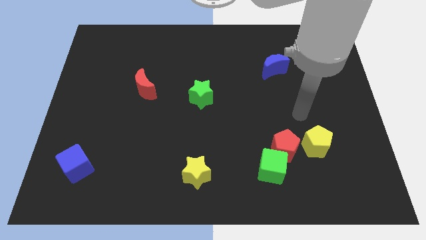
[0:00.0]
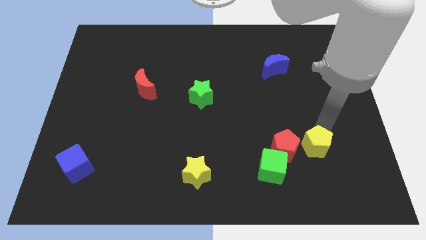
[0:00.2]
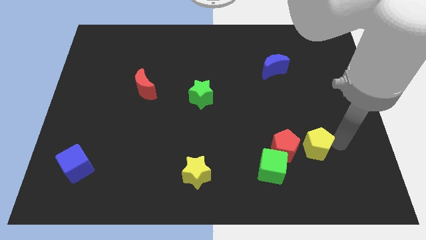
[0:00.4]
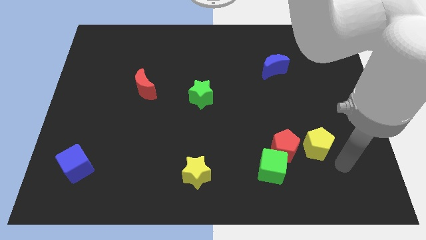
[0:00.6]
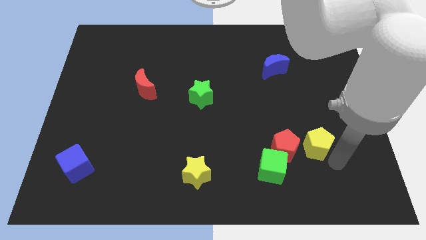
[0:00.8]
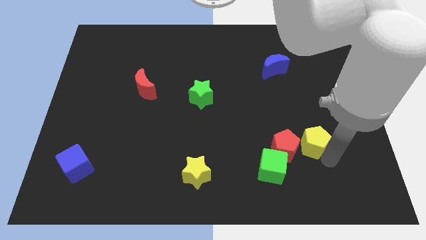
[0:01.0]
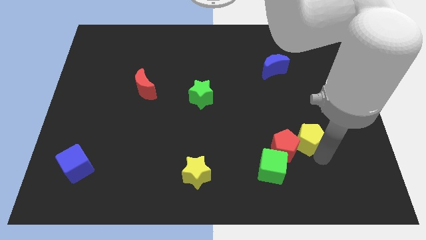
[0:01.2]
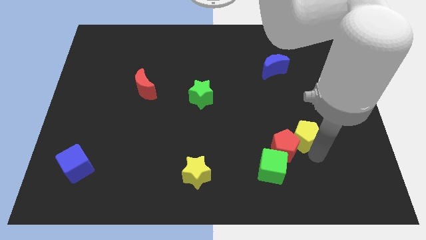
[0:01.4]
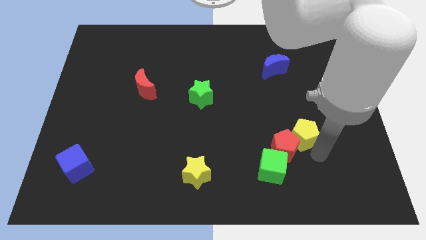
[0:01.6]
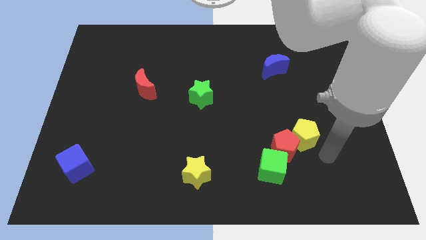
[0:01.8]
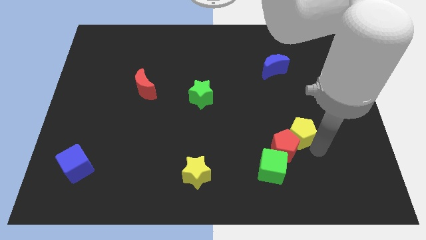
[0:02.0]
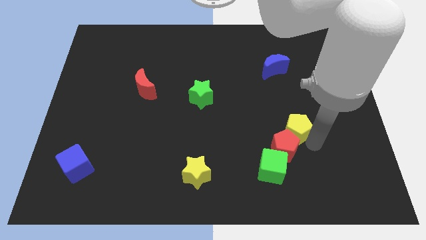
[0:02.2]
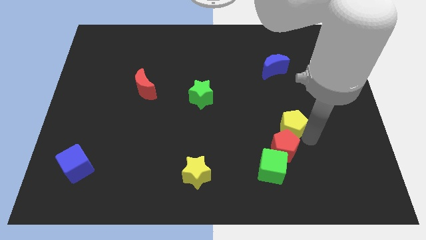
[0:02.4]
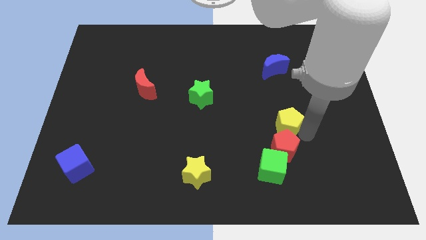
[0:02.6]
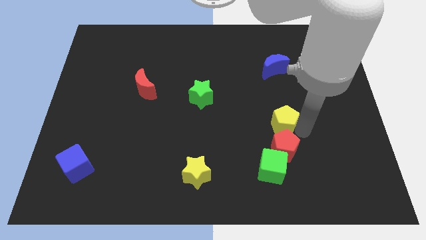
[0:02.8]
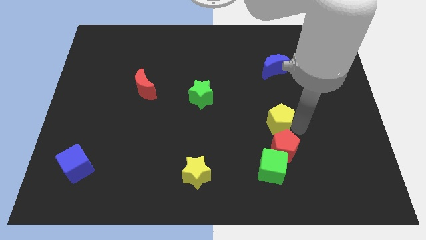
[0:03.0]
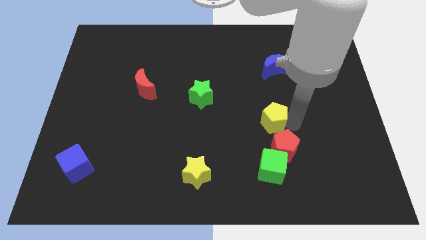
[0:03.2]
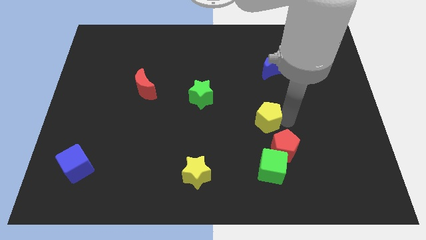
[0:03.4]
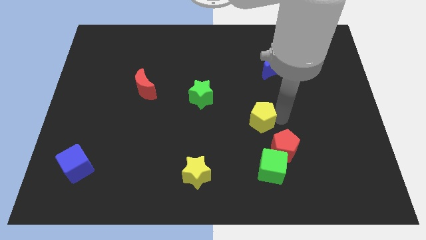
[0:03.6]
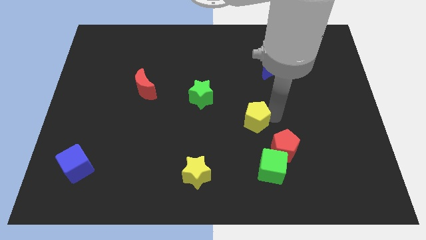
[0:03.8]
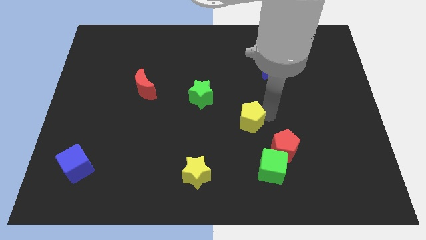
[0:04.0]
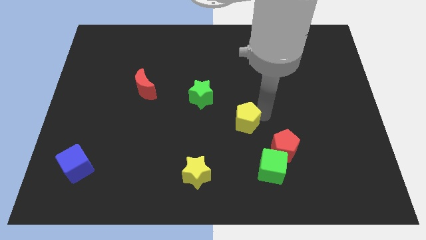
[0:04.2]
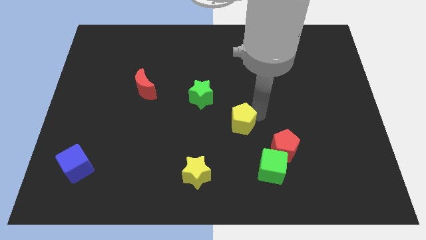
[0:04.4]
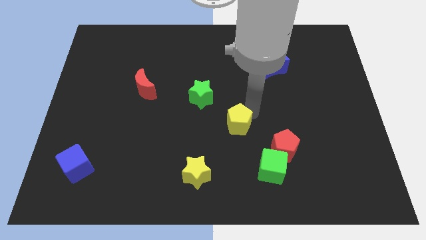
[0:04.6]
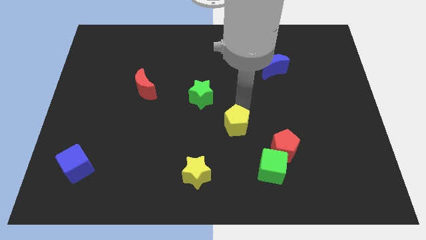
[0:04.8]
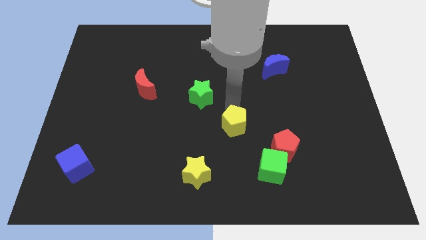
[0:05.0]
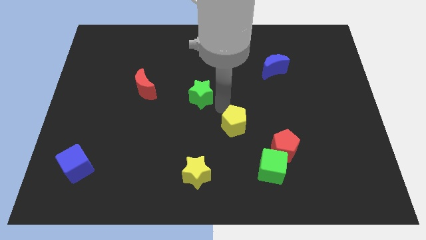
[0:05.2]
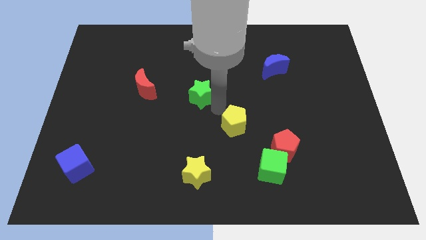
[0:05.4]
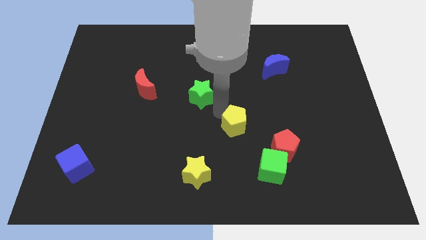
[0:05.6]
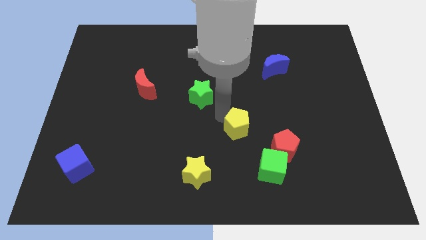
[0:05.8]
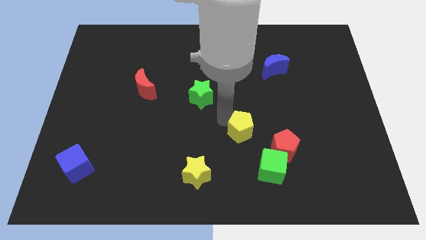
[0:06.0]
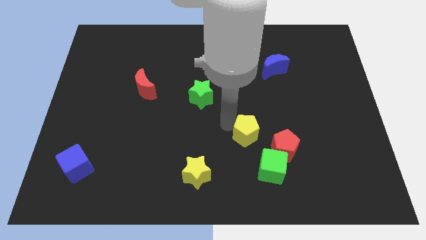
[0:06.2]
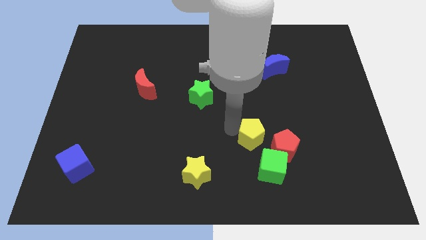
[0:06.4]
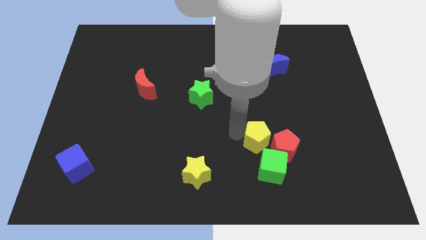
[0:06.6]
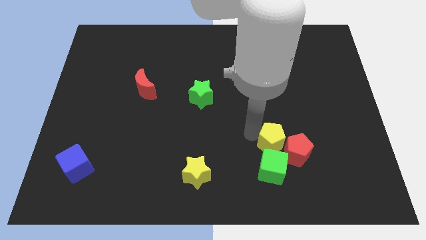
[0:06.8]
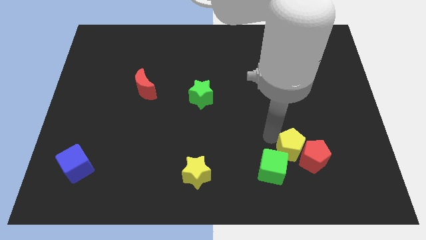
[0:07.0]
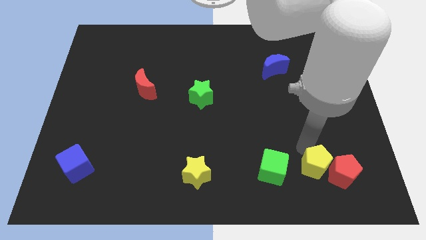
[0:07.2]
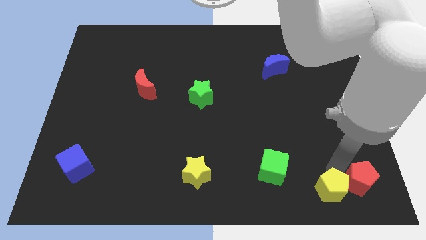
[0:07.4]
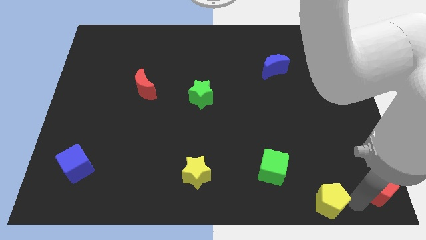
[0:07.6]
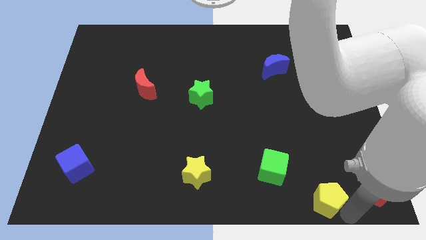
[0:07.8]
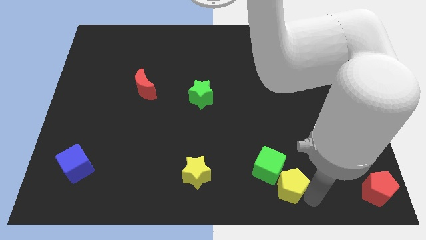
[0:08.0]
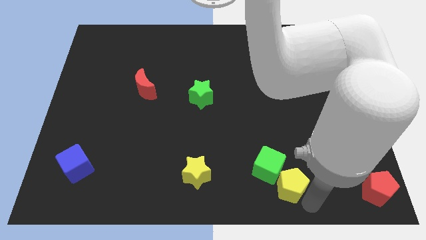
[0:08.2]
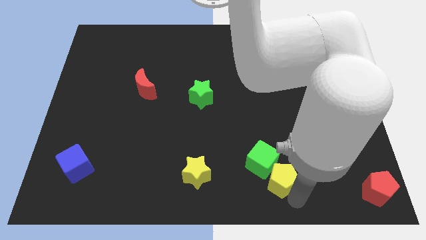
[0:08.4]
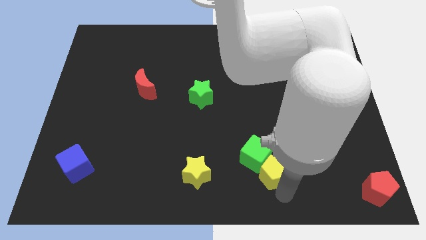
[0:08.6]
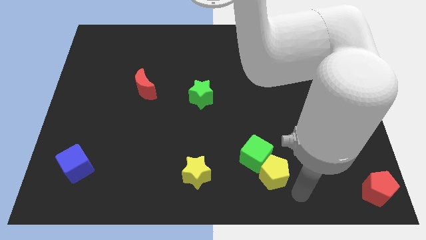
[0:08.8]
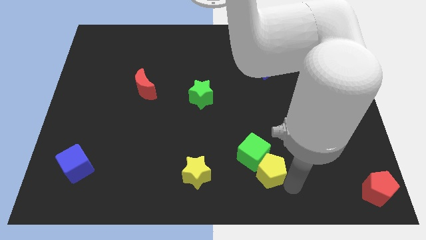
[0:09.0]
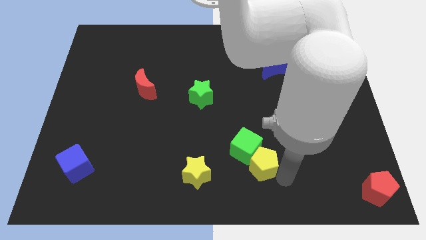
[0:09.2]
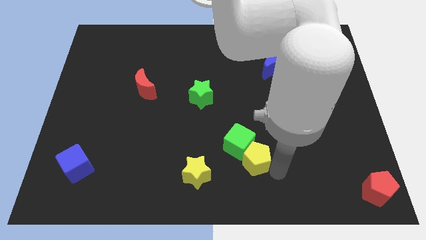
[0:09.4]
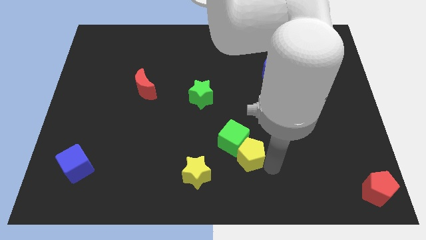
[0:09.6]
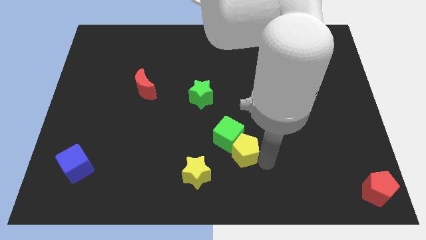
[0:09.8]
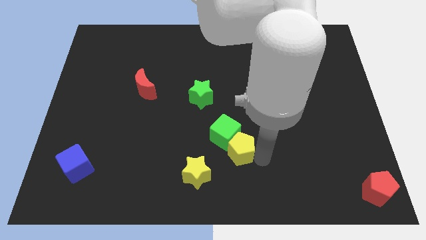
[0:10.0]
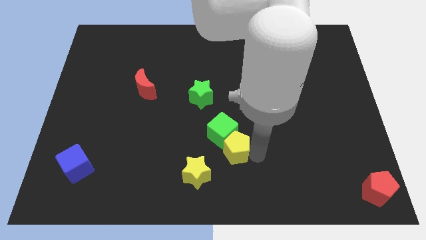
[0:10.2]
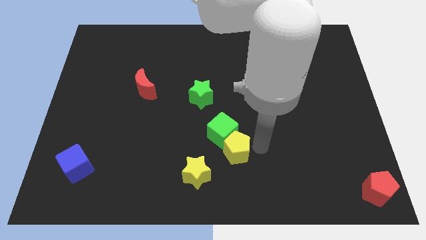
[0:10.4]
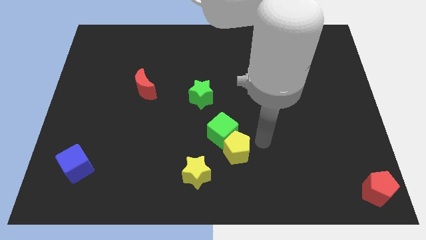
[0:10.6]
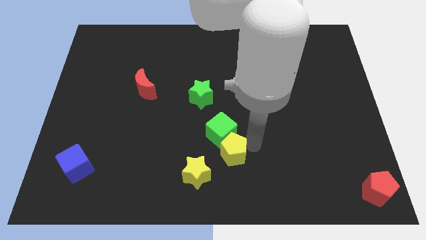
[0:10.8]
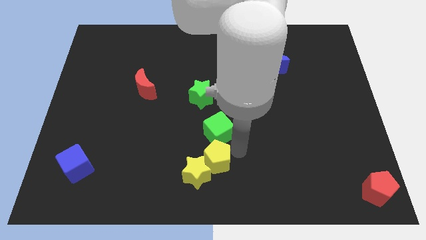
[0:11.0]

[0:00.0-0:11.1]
put the yellow pentagon next to the yellow star

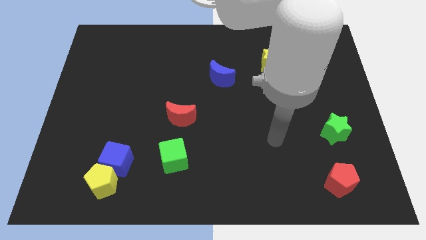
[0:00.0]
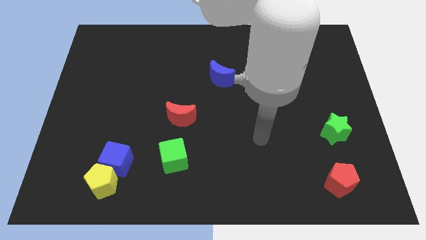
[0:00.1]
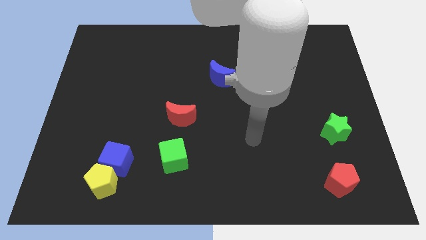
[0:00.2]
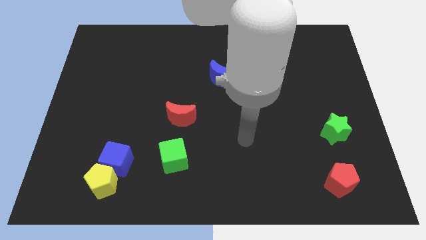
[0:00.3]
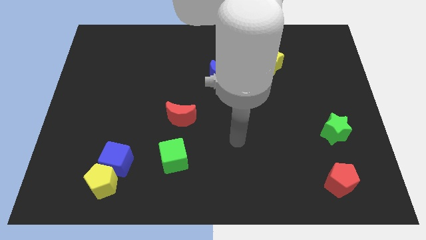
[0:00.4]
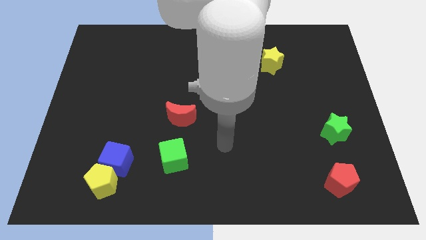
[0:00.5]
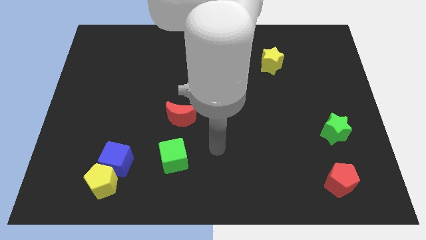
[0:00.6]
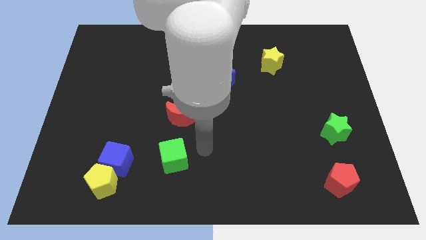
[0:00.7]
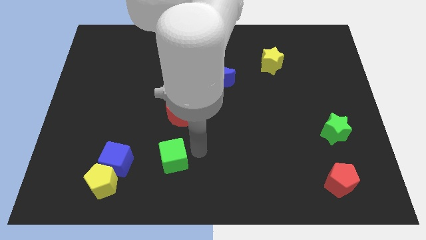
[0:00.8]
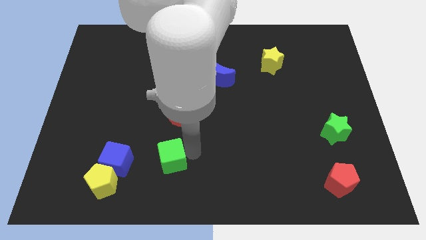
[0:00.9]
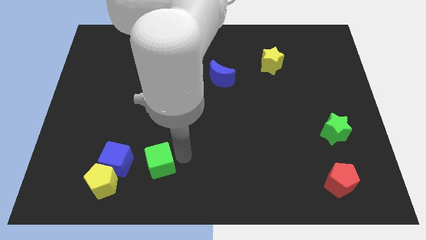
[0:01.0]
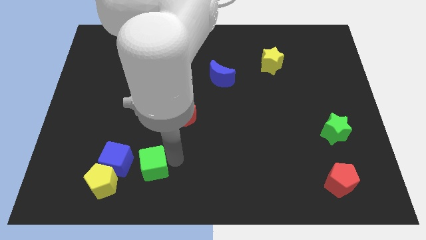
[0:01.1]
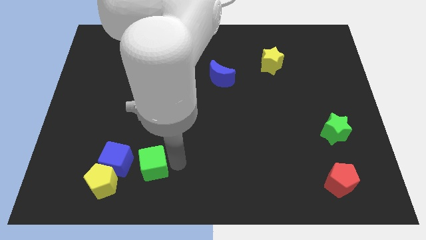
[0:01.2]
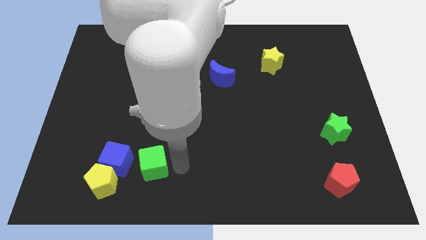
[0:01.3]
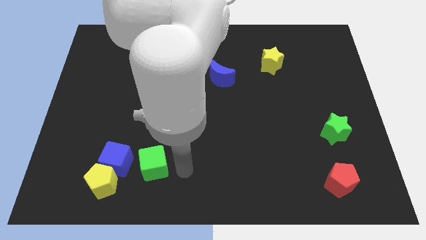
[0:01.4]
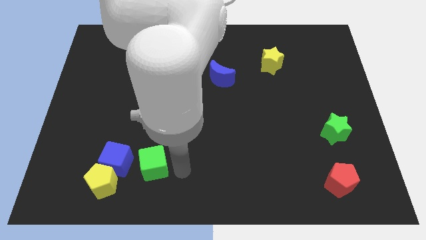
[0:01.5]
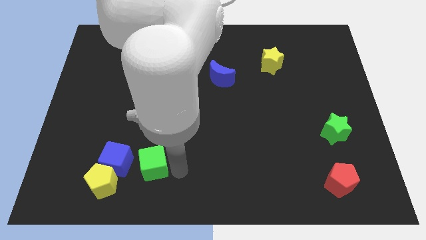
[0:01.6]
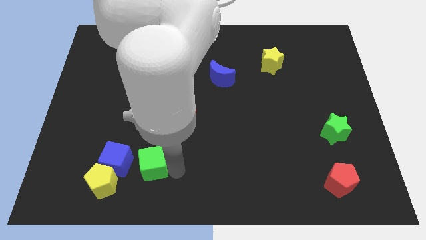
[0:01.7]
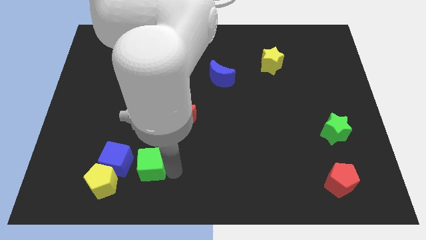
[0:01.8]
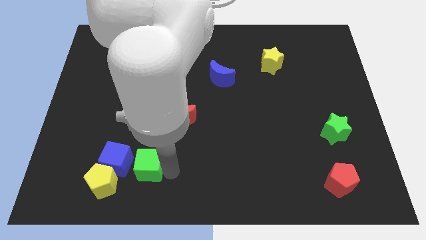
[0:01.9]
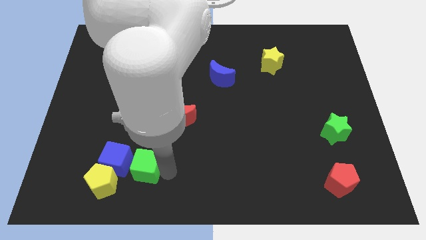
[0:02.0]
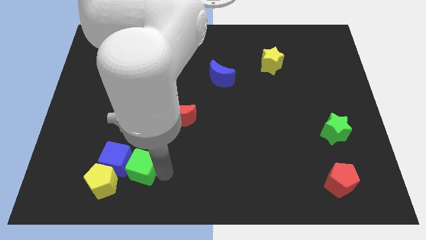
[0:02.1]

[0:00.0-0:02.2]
move the green cube close to the blue cube
